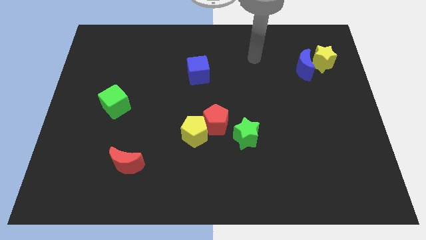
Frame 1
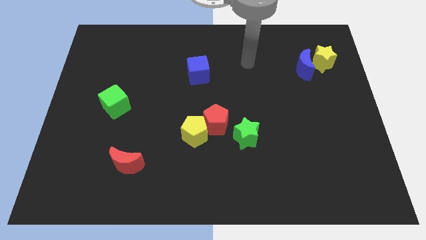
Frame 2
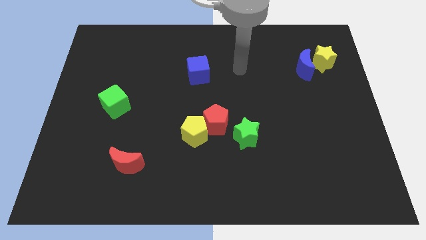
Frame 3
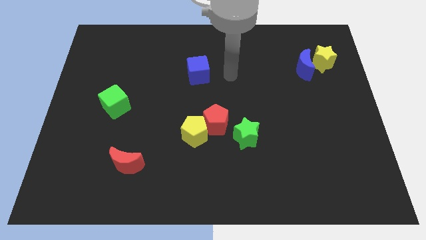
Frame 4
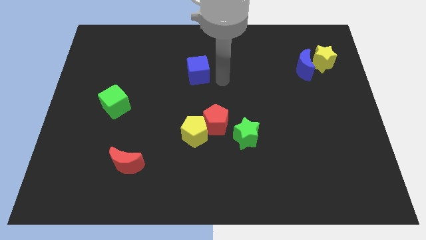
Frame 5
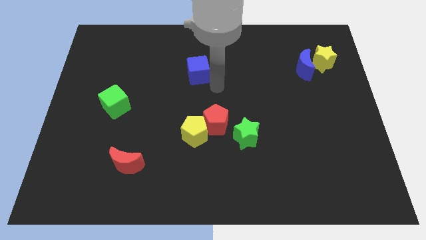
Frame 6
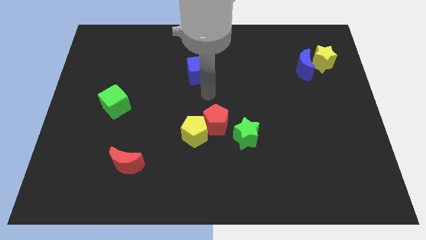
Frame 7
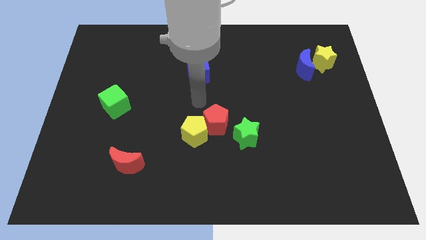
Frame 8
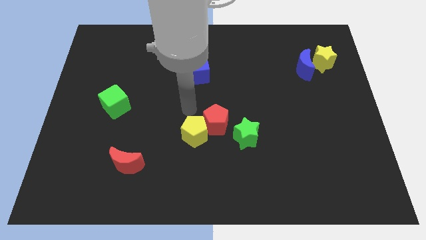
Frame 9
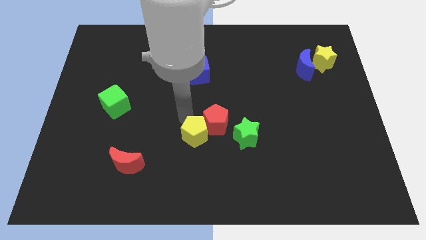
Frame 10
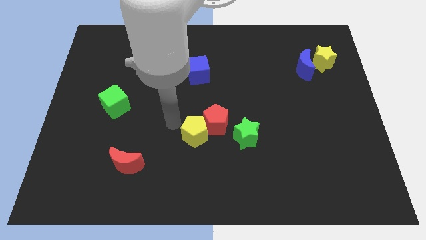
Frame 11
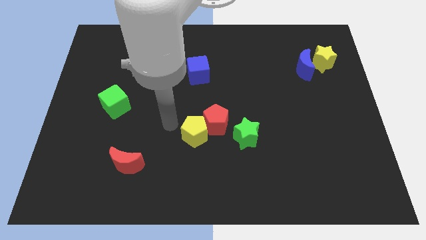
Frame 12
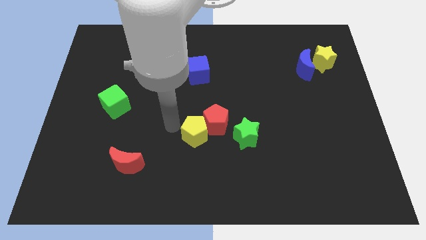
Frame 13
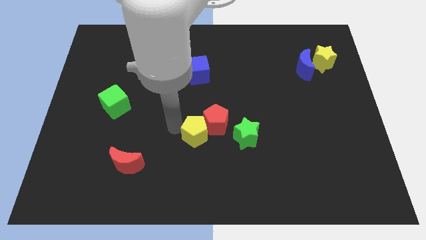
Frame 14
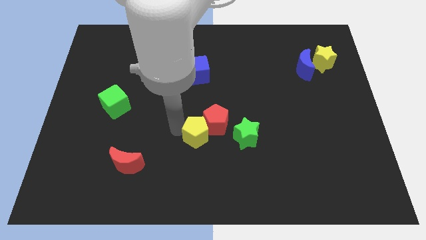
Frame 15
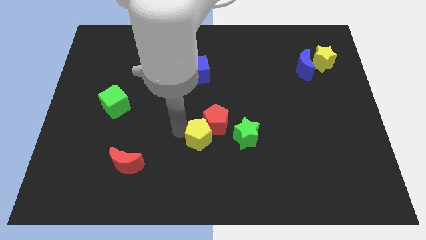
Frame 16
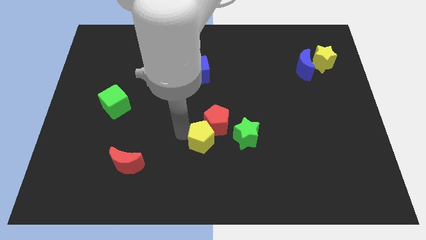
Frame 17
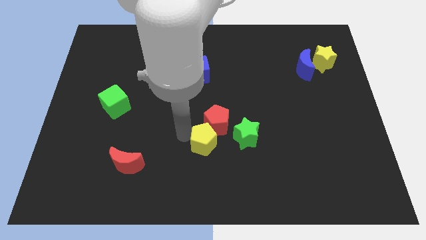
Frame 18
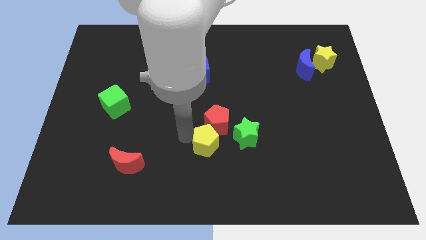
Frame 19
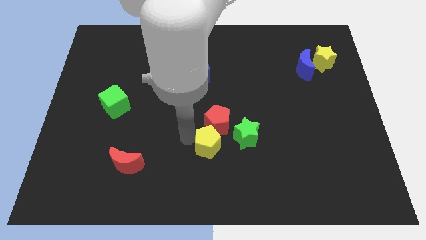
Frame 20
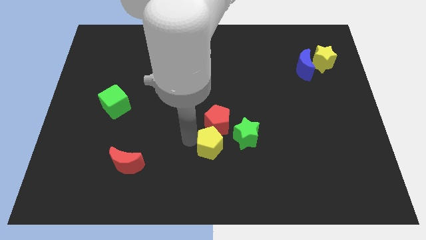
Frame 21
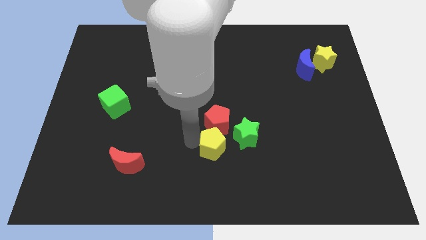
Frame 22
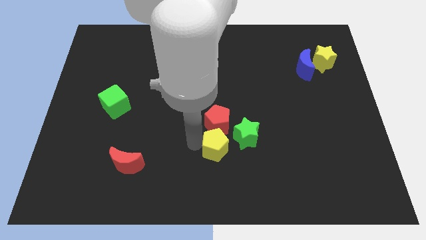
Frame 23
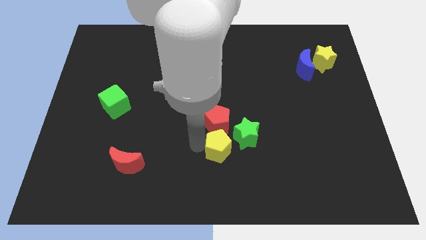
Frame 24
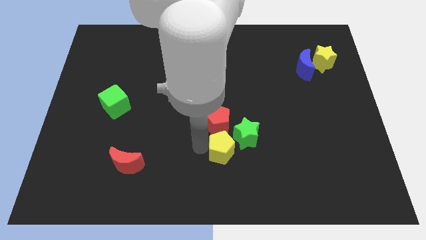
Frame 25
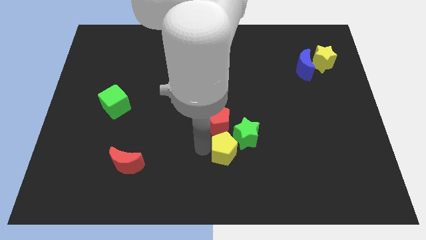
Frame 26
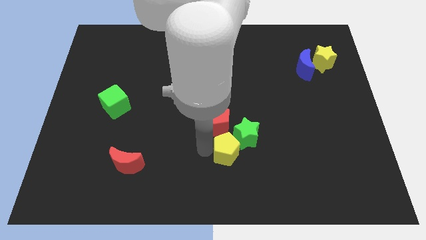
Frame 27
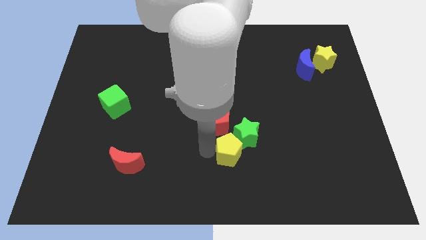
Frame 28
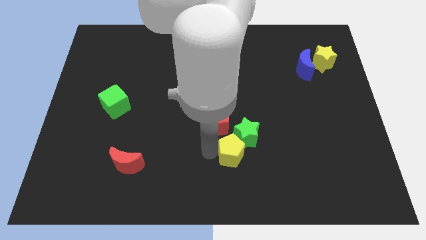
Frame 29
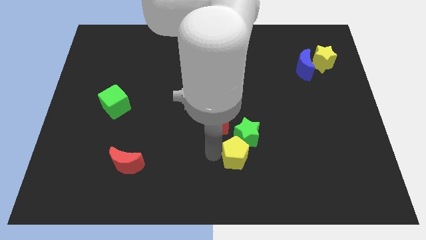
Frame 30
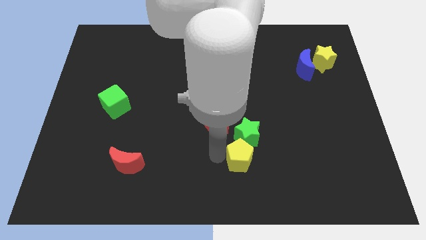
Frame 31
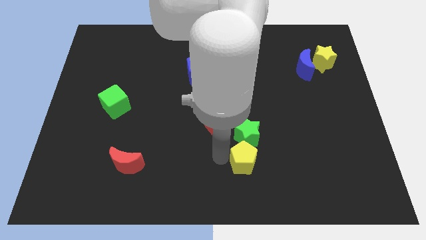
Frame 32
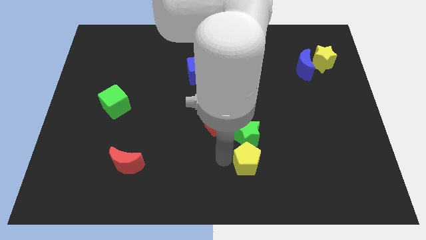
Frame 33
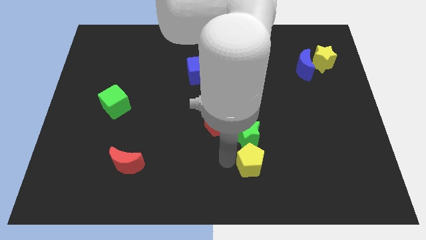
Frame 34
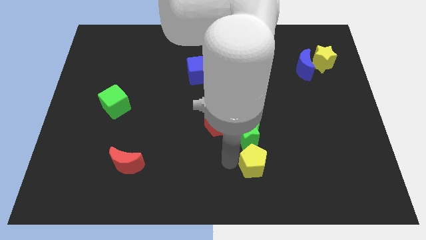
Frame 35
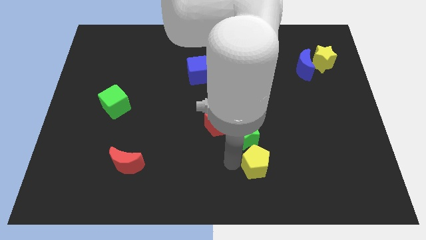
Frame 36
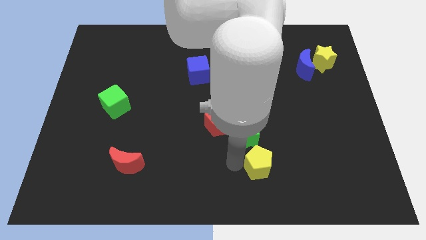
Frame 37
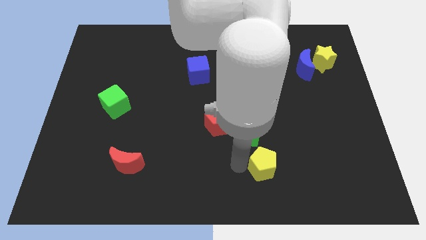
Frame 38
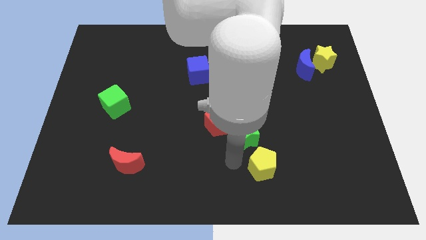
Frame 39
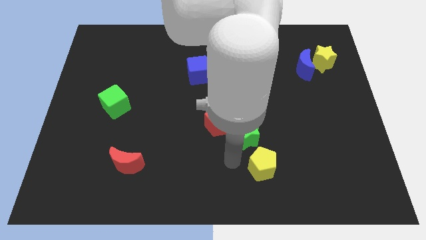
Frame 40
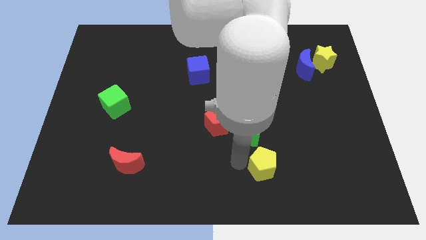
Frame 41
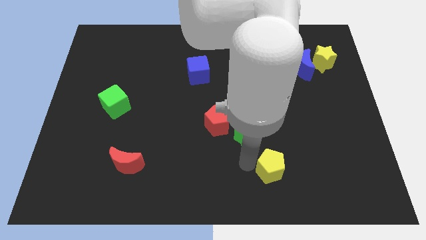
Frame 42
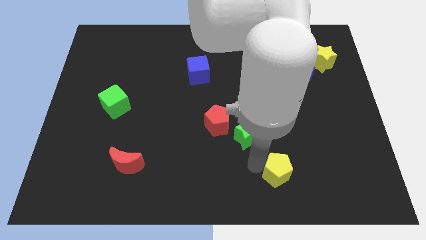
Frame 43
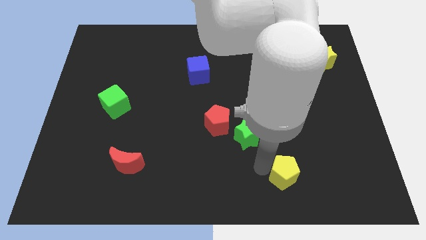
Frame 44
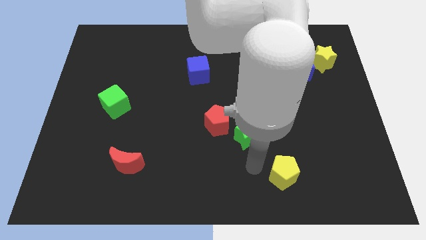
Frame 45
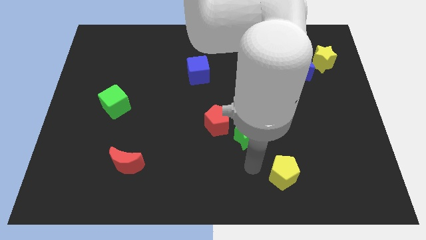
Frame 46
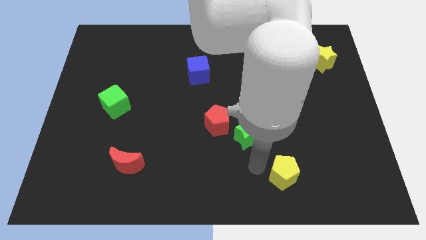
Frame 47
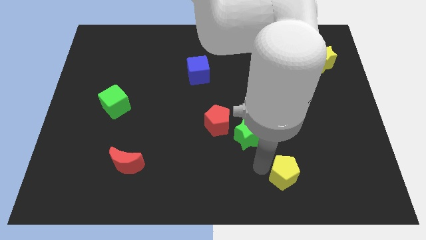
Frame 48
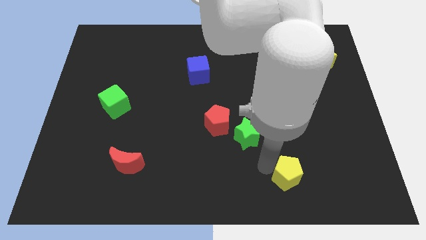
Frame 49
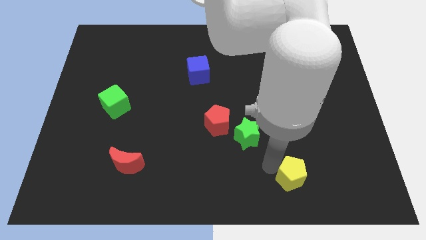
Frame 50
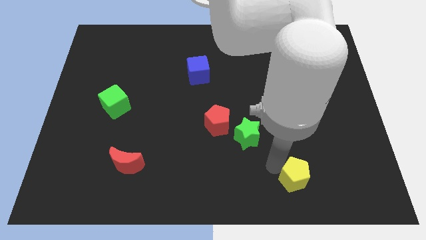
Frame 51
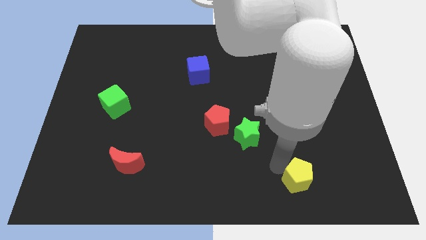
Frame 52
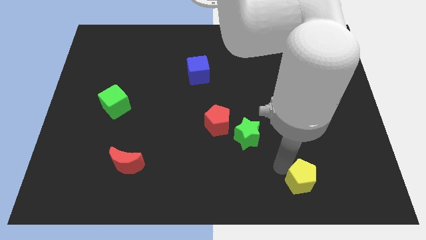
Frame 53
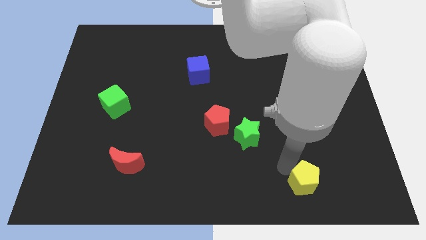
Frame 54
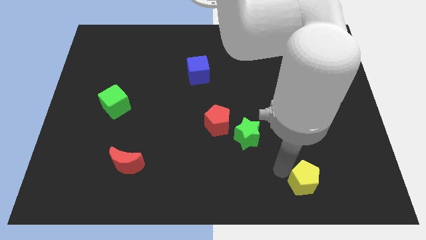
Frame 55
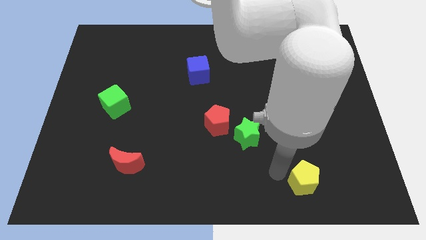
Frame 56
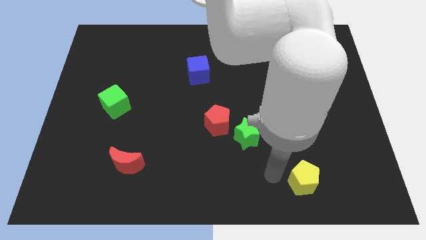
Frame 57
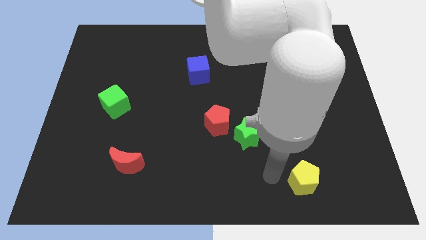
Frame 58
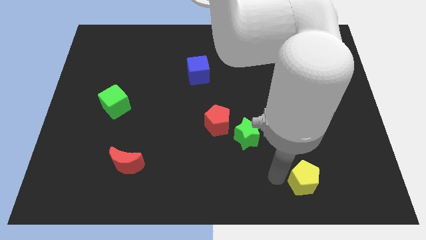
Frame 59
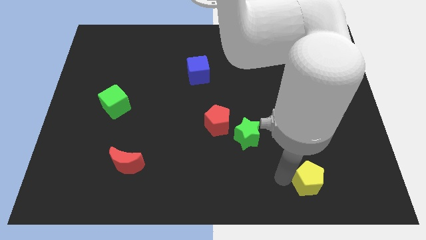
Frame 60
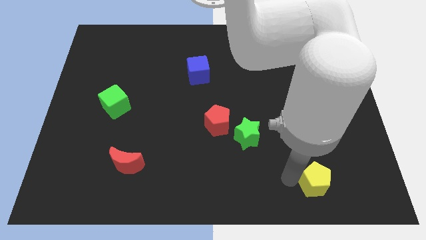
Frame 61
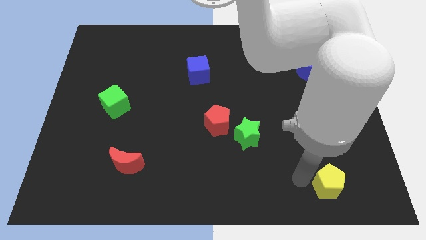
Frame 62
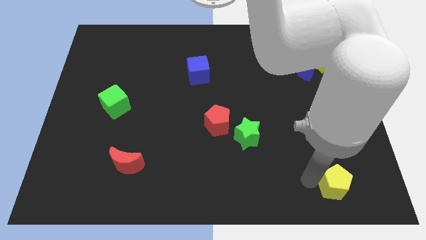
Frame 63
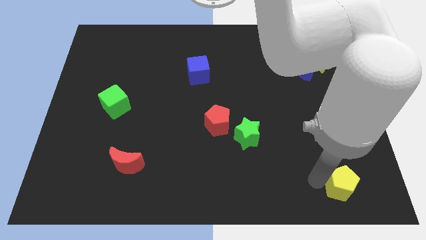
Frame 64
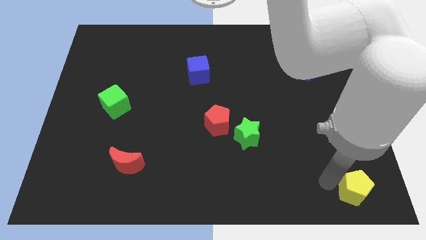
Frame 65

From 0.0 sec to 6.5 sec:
put the yellow pentagon to the bottom right
